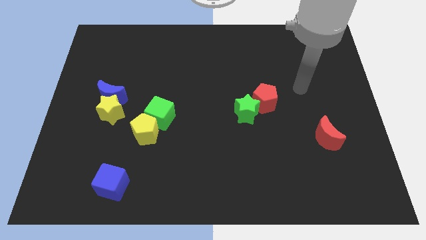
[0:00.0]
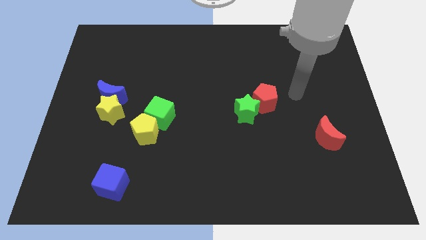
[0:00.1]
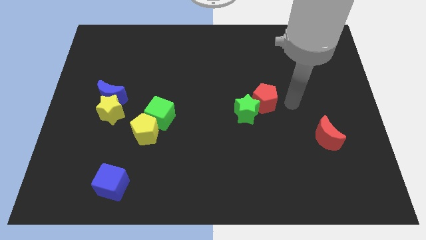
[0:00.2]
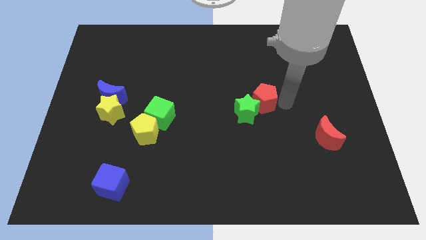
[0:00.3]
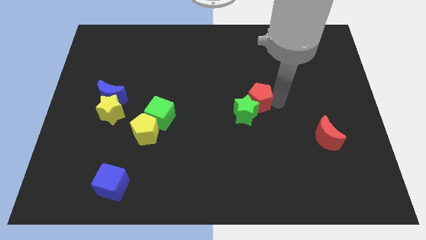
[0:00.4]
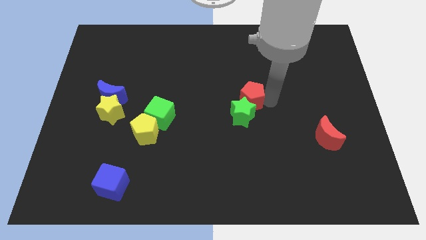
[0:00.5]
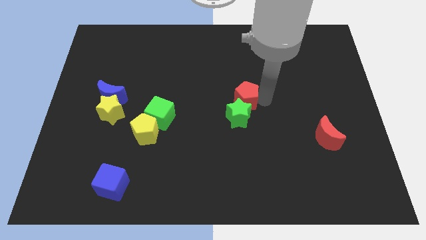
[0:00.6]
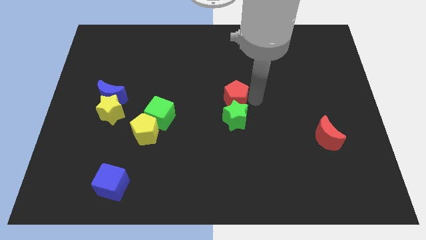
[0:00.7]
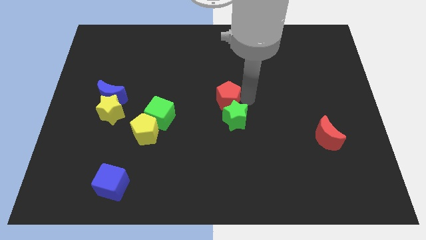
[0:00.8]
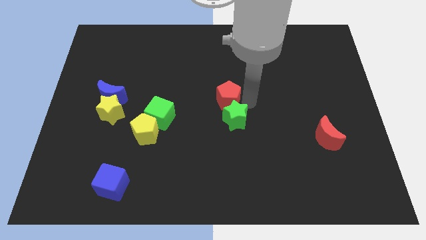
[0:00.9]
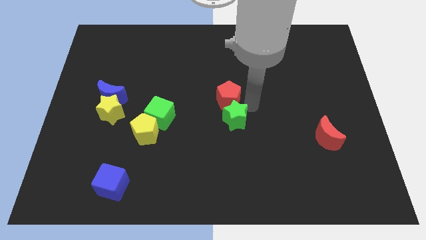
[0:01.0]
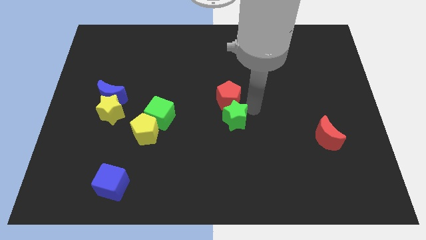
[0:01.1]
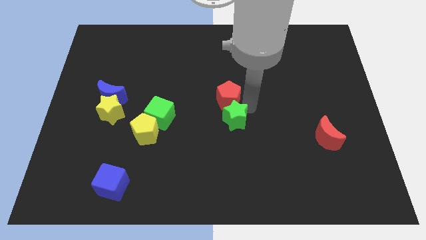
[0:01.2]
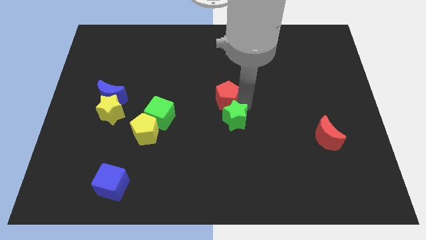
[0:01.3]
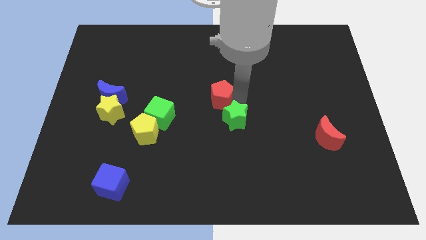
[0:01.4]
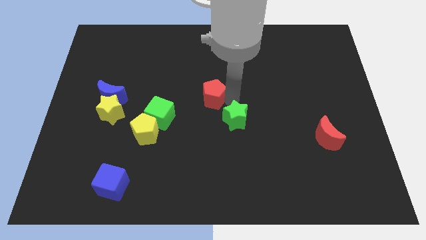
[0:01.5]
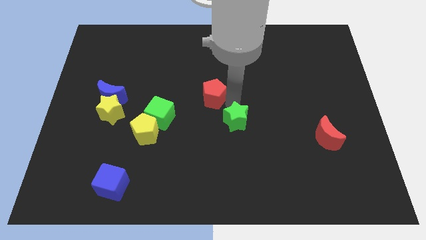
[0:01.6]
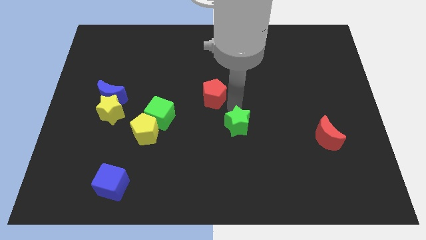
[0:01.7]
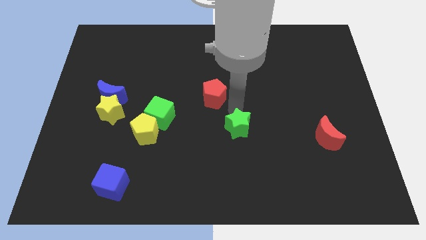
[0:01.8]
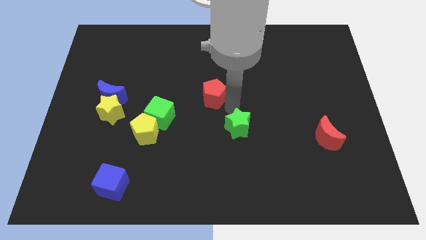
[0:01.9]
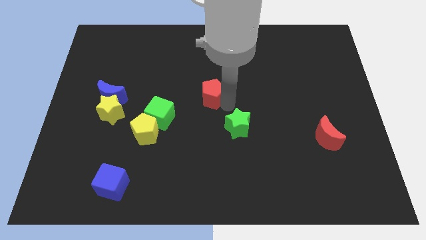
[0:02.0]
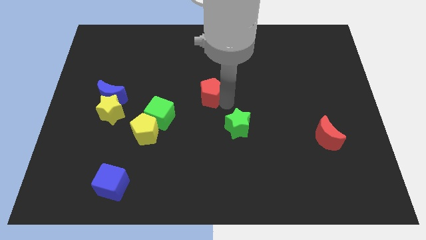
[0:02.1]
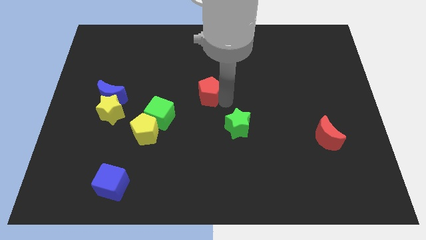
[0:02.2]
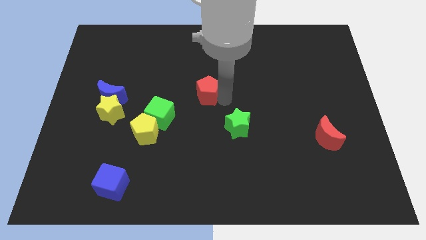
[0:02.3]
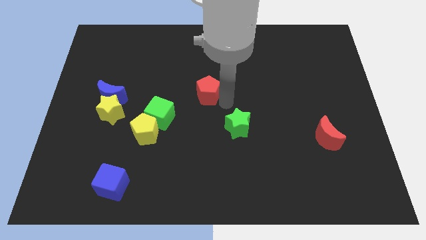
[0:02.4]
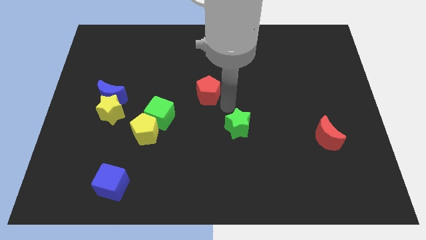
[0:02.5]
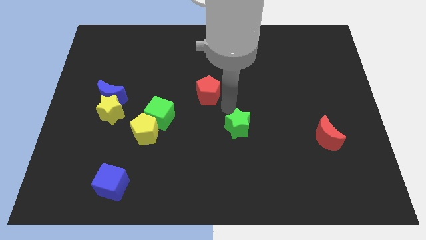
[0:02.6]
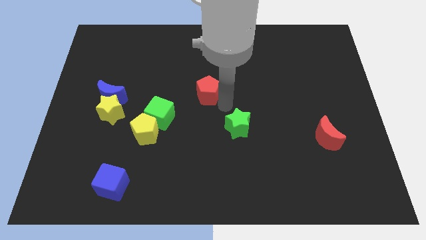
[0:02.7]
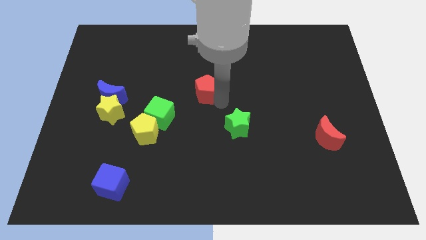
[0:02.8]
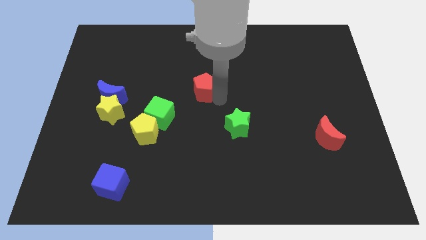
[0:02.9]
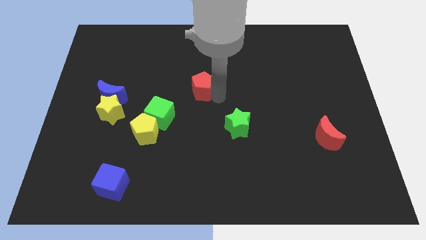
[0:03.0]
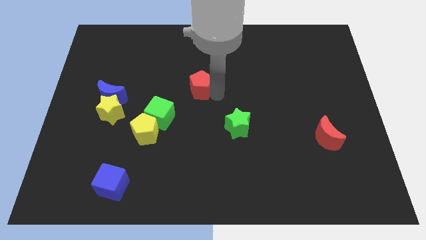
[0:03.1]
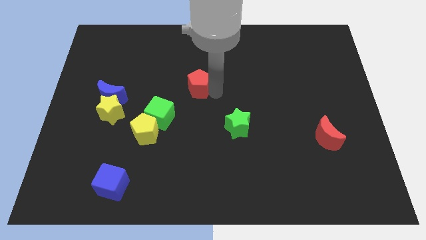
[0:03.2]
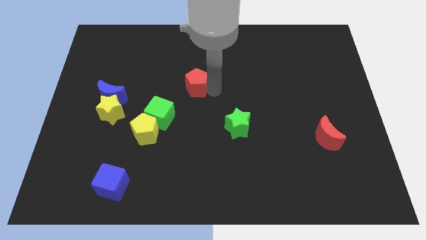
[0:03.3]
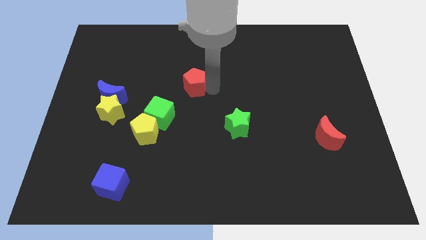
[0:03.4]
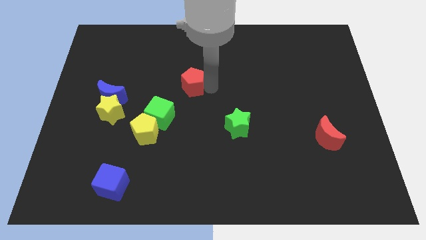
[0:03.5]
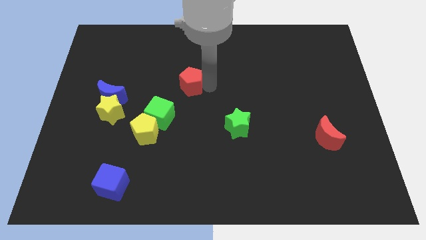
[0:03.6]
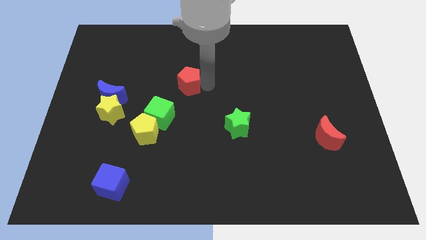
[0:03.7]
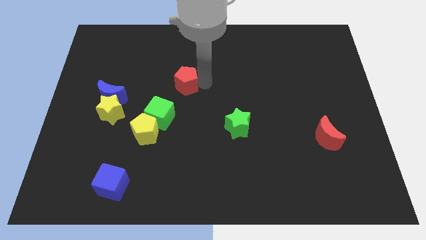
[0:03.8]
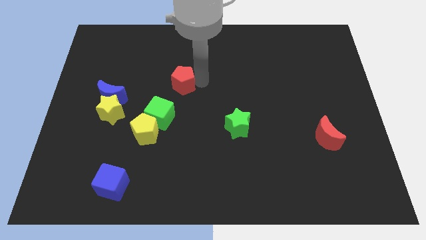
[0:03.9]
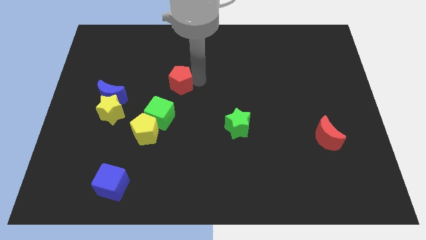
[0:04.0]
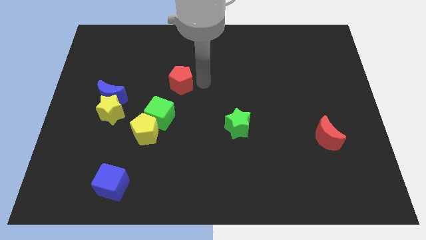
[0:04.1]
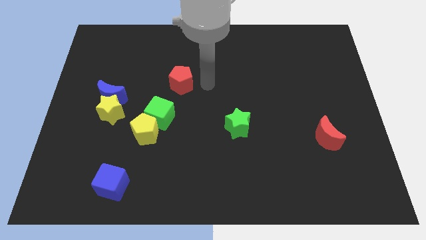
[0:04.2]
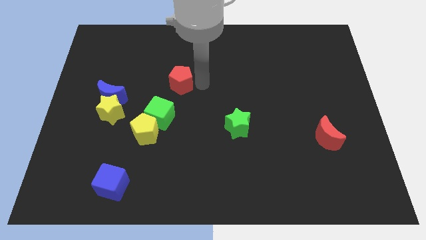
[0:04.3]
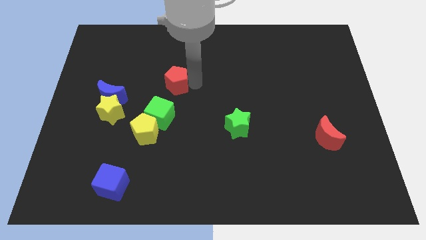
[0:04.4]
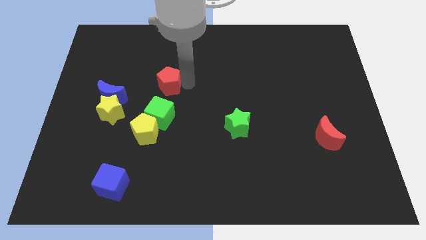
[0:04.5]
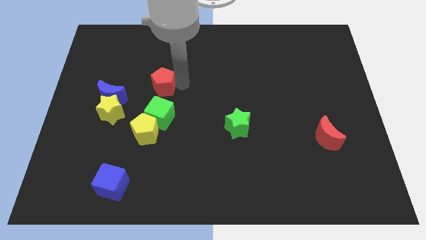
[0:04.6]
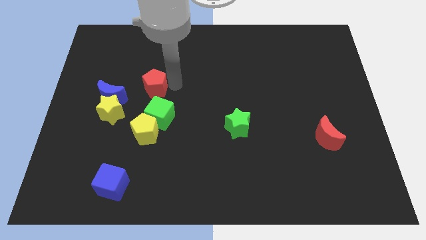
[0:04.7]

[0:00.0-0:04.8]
put the red pentagon to the top right of the blue moon

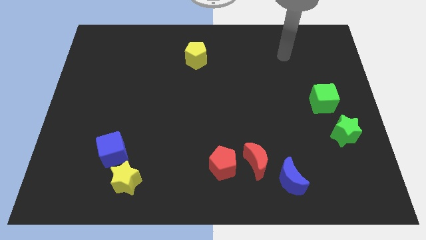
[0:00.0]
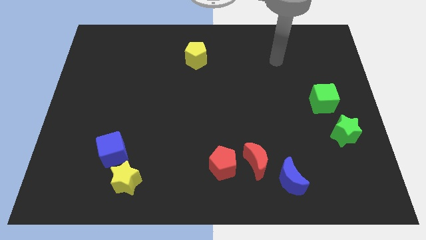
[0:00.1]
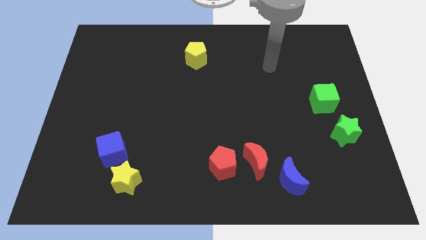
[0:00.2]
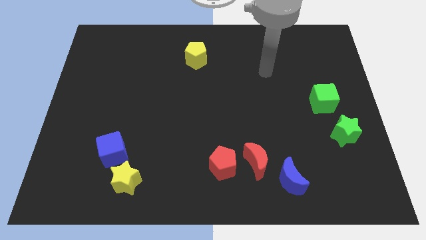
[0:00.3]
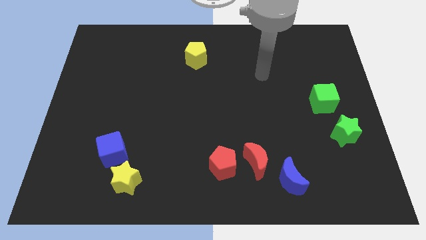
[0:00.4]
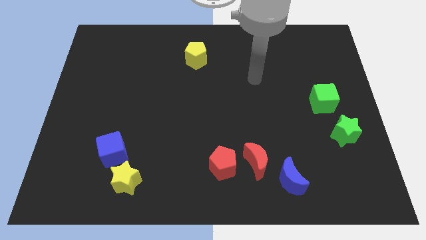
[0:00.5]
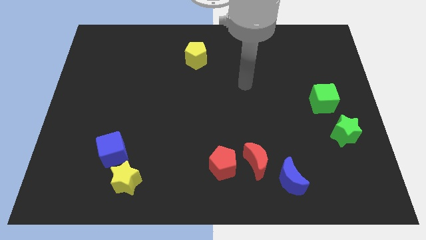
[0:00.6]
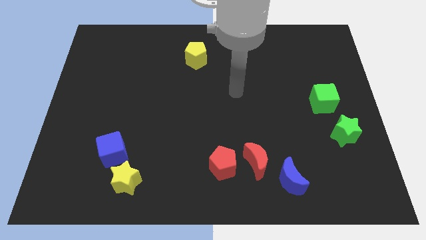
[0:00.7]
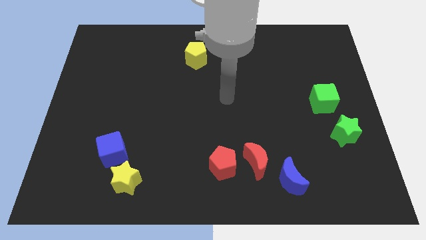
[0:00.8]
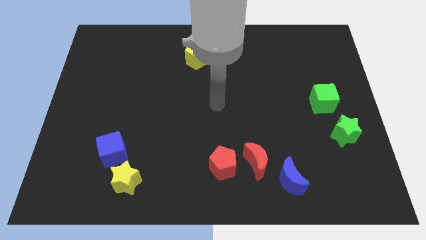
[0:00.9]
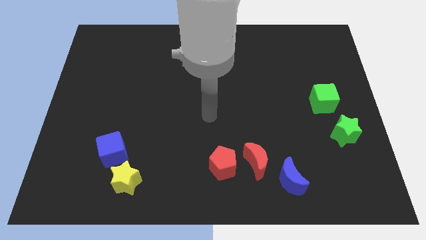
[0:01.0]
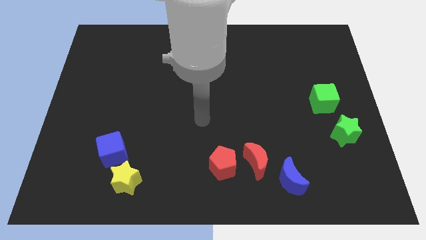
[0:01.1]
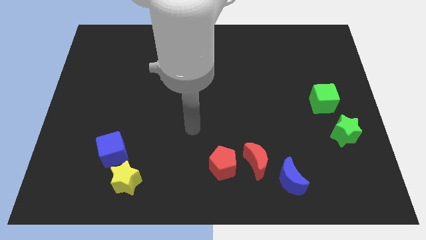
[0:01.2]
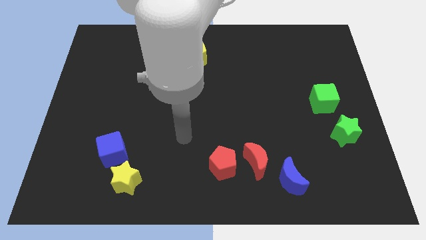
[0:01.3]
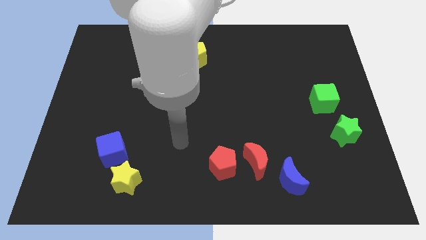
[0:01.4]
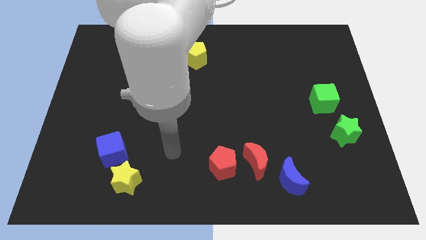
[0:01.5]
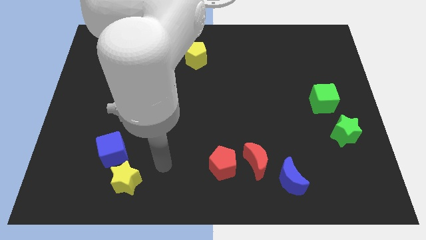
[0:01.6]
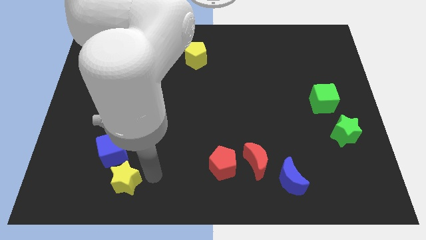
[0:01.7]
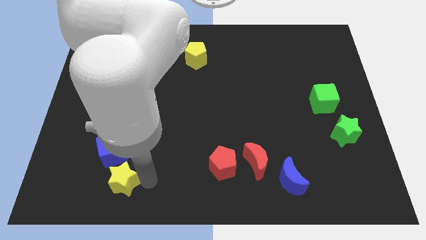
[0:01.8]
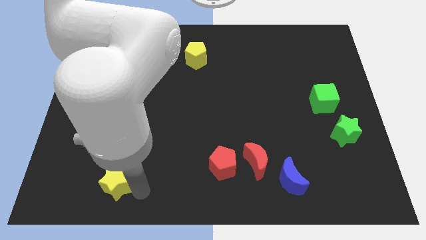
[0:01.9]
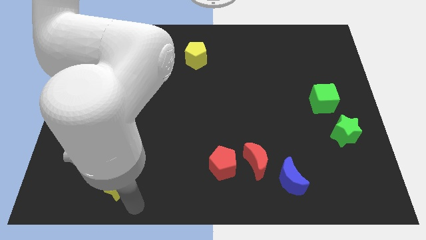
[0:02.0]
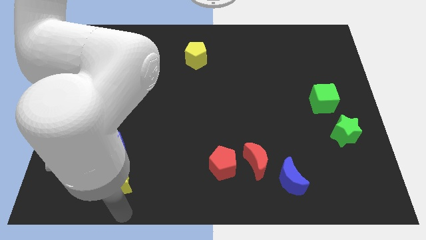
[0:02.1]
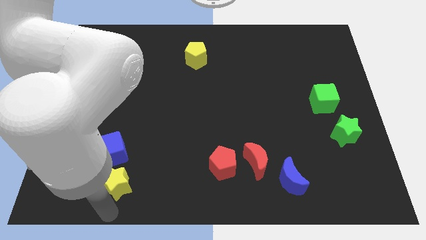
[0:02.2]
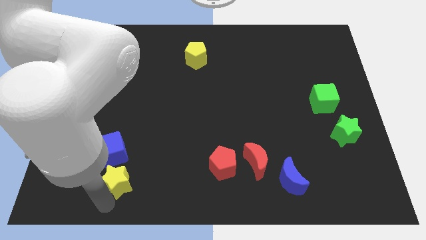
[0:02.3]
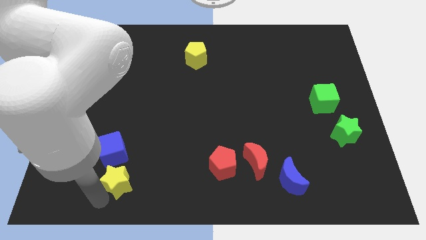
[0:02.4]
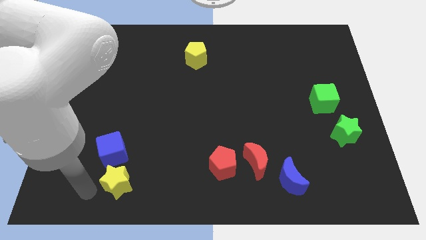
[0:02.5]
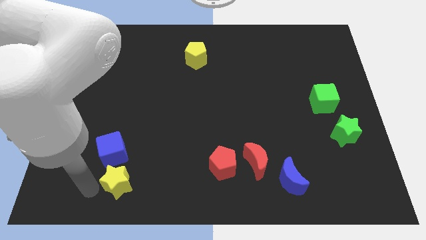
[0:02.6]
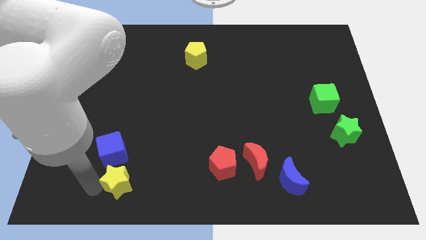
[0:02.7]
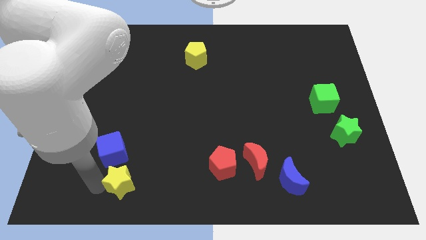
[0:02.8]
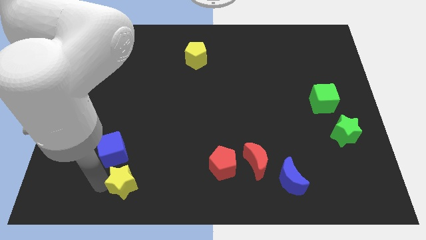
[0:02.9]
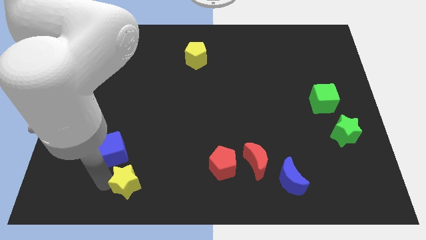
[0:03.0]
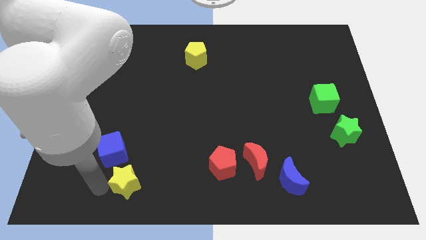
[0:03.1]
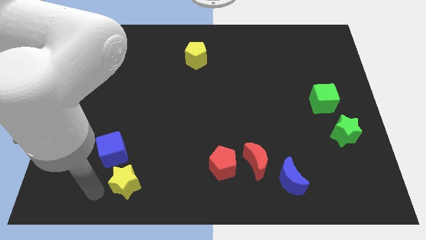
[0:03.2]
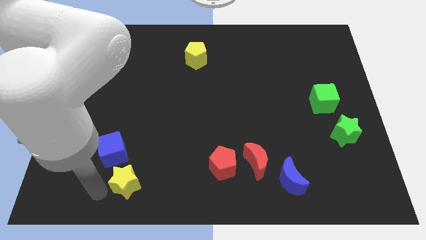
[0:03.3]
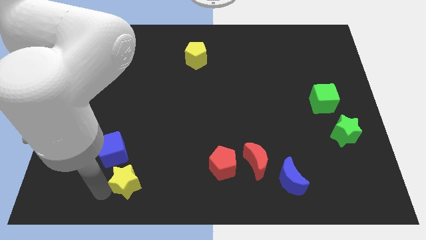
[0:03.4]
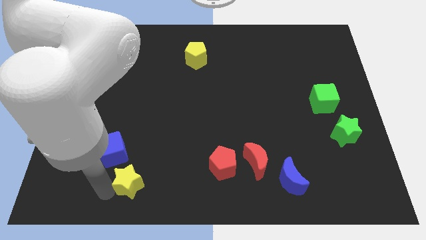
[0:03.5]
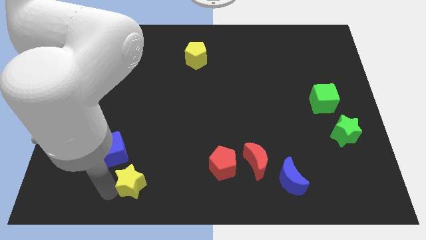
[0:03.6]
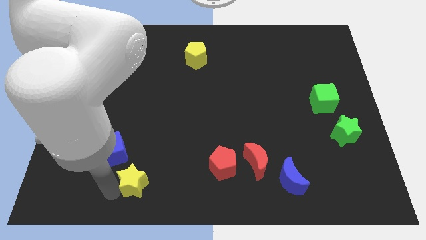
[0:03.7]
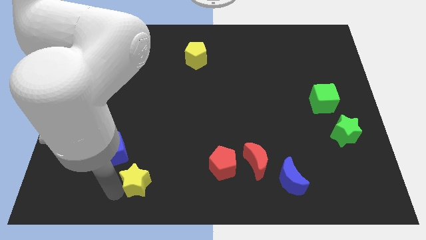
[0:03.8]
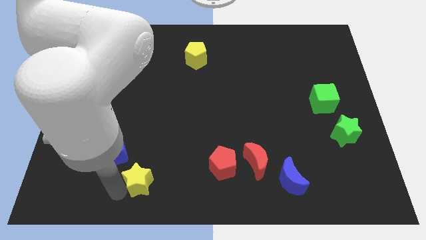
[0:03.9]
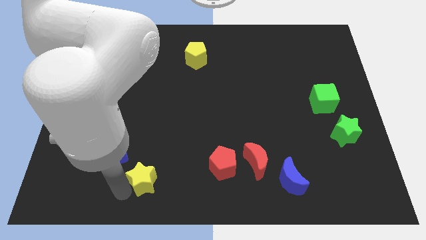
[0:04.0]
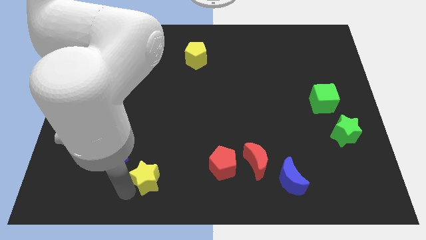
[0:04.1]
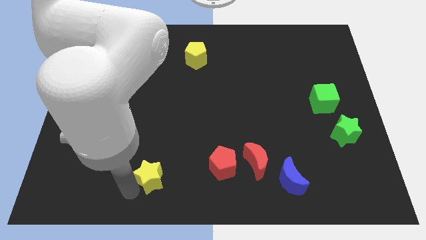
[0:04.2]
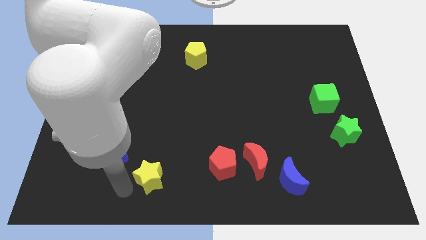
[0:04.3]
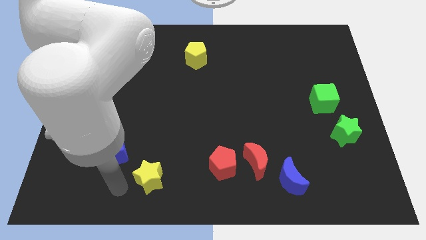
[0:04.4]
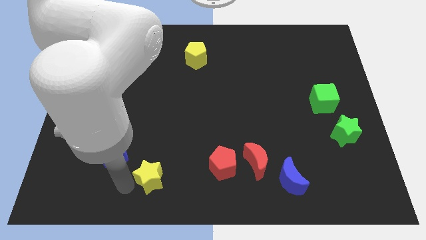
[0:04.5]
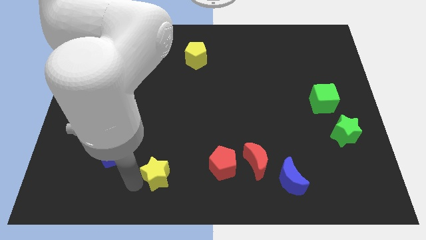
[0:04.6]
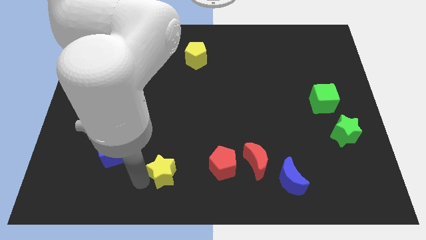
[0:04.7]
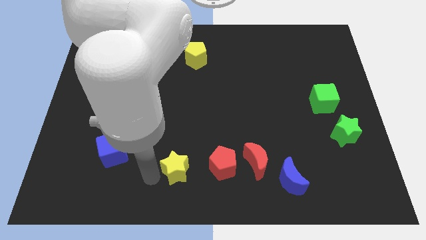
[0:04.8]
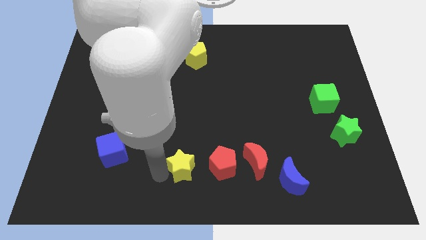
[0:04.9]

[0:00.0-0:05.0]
put the yellow star left of the red moon
